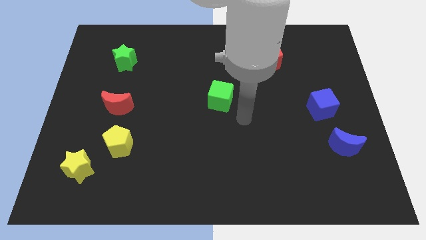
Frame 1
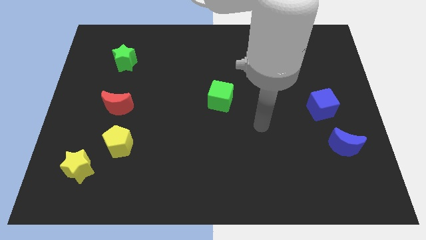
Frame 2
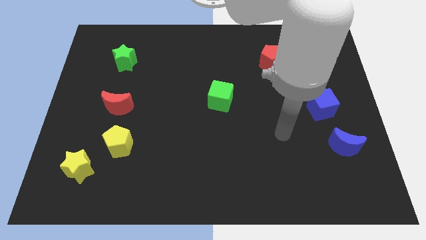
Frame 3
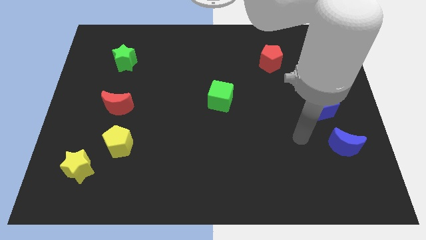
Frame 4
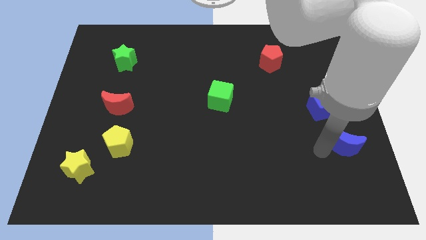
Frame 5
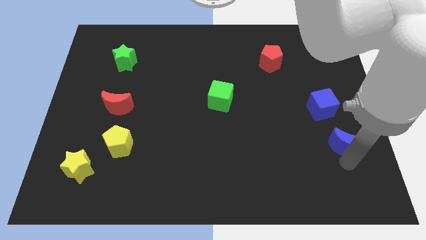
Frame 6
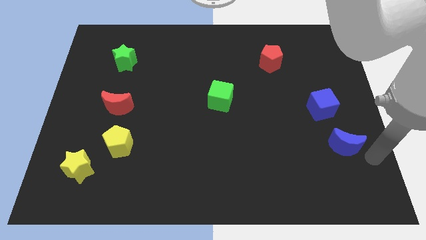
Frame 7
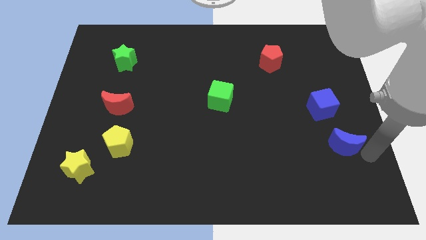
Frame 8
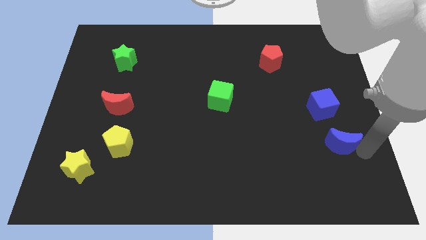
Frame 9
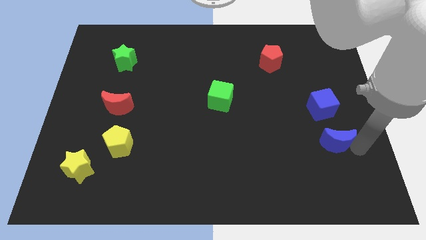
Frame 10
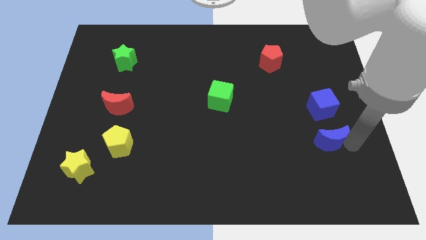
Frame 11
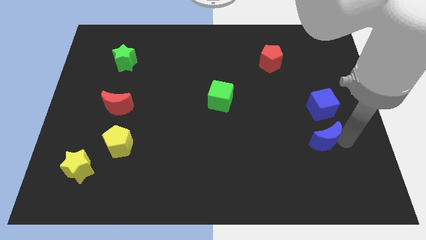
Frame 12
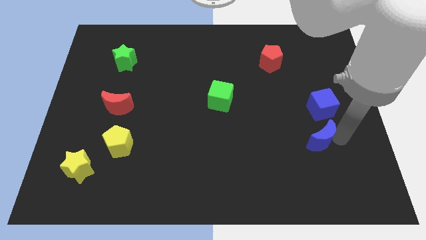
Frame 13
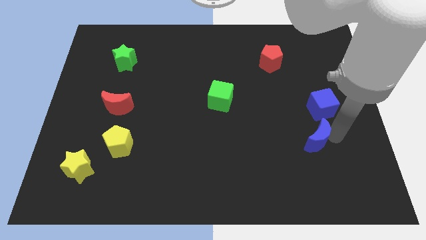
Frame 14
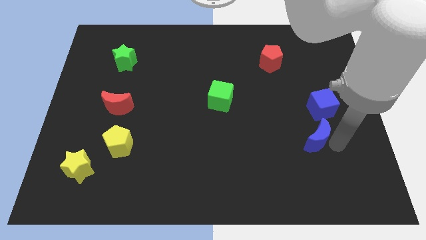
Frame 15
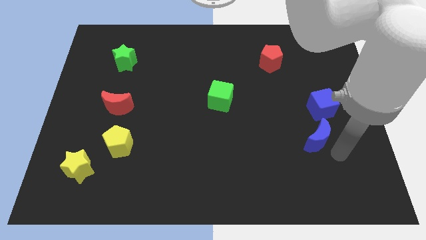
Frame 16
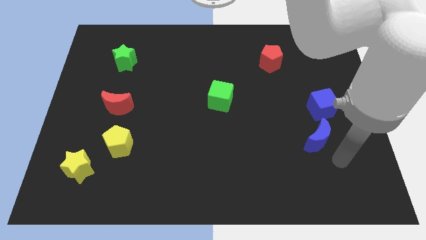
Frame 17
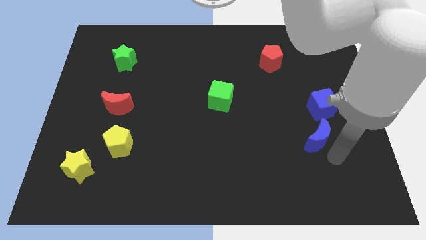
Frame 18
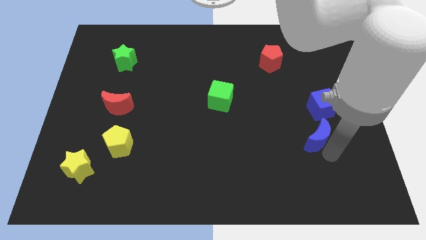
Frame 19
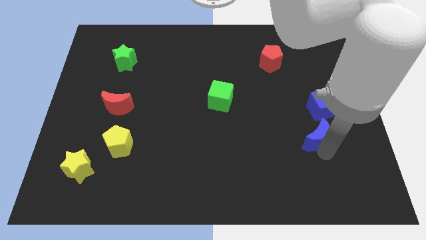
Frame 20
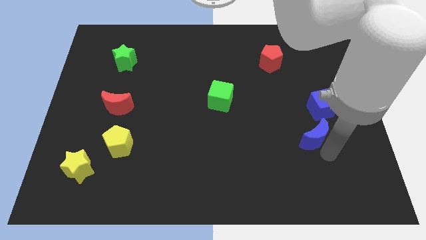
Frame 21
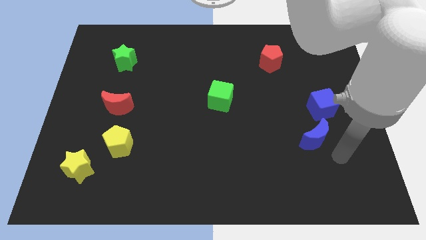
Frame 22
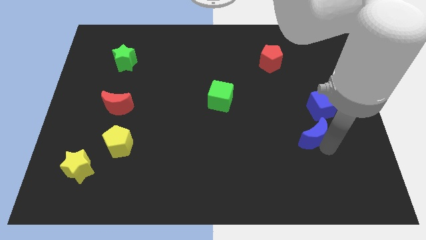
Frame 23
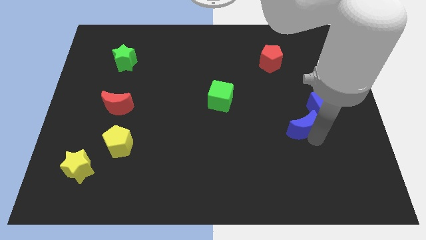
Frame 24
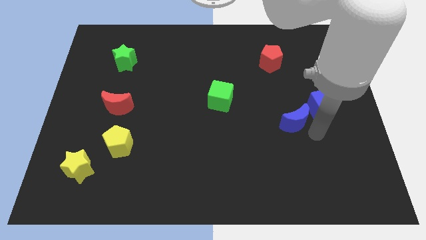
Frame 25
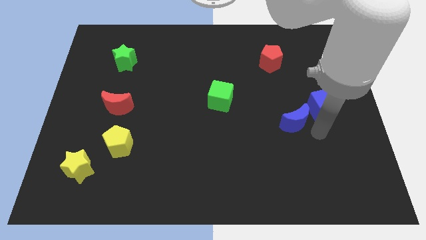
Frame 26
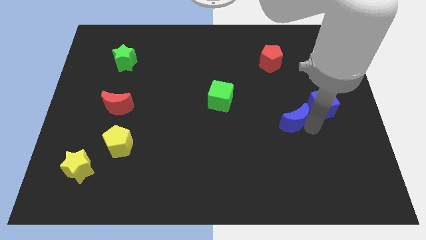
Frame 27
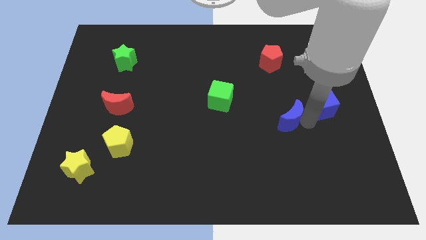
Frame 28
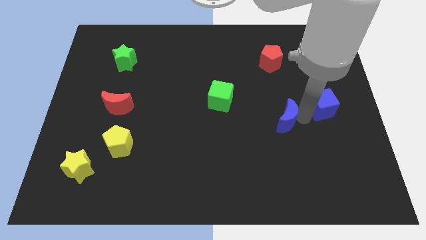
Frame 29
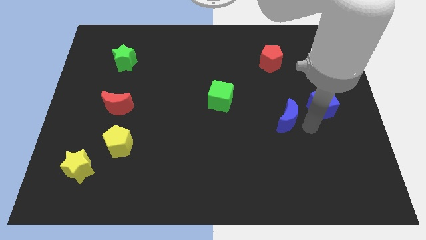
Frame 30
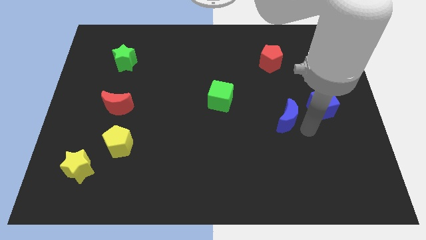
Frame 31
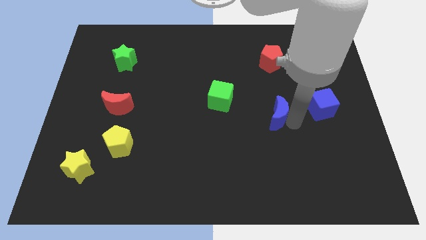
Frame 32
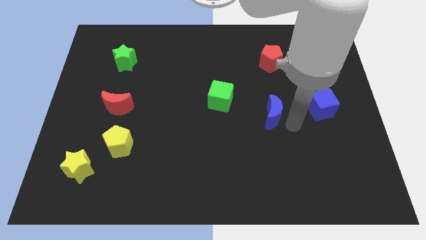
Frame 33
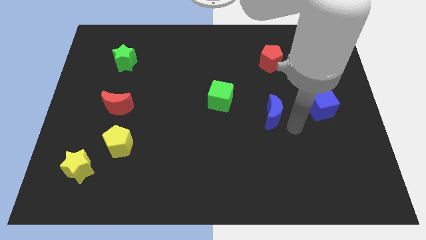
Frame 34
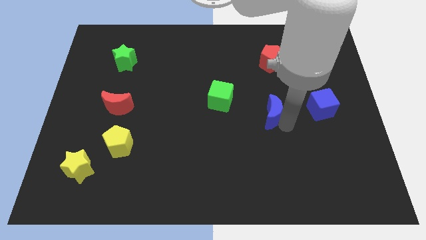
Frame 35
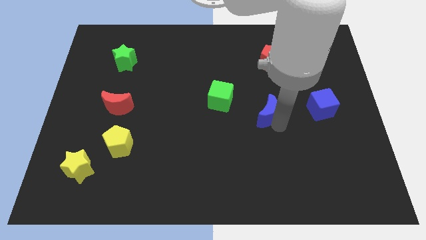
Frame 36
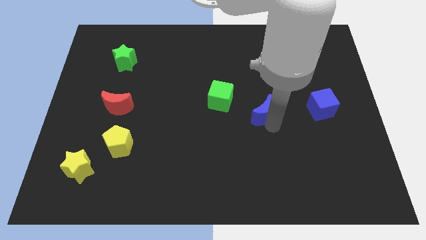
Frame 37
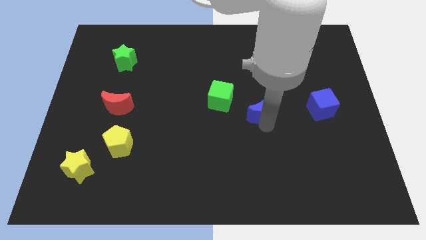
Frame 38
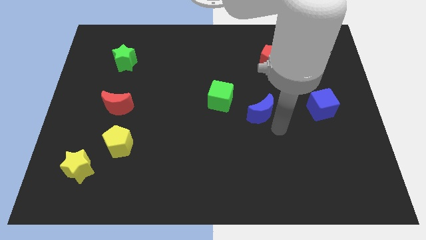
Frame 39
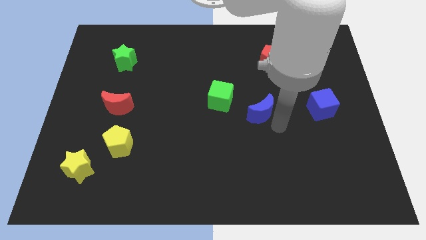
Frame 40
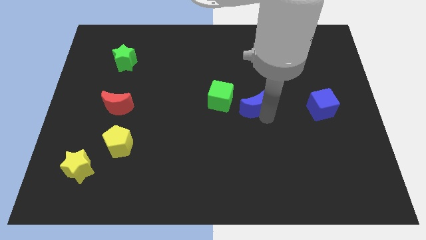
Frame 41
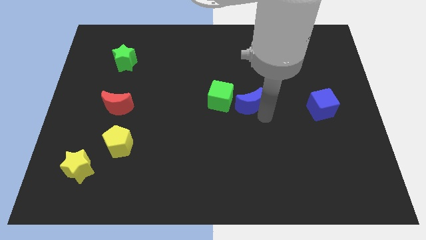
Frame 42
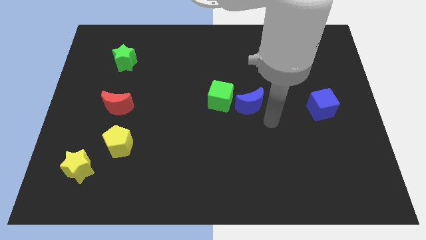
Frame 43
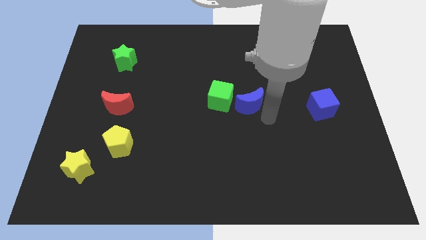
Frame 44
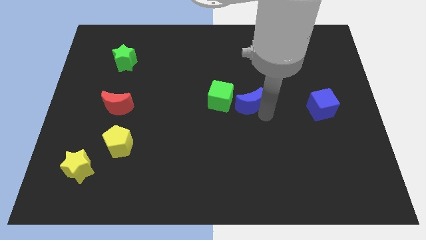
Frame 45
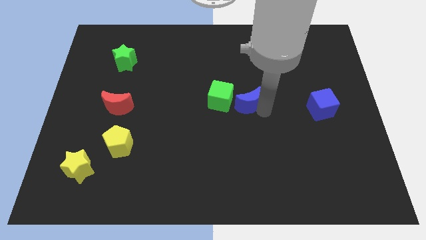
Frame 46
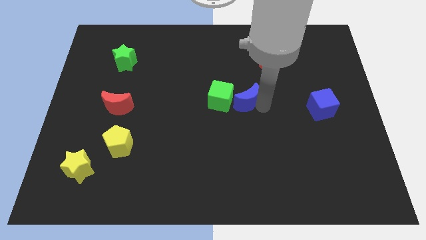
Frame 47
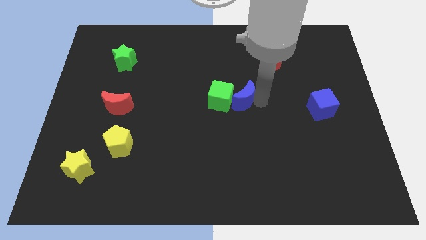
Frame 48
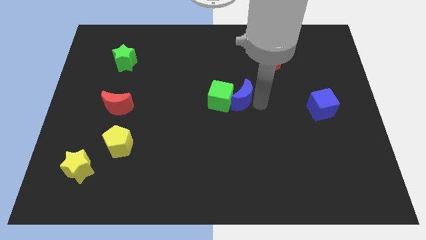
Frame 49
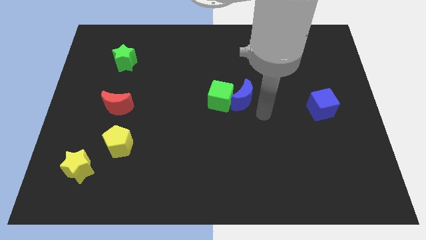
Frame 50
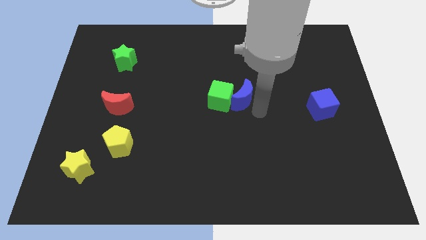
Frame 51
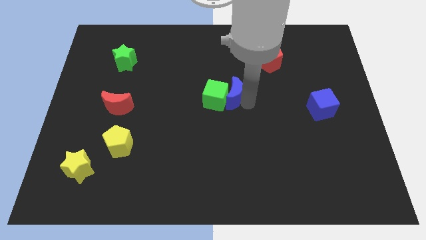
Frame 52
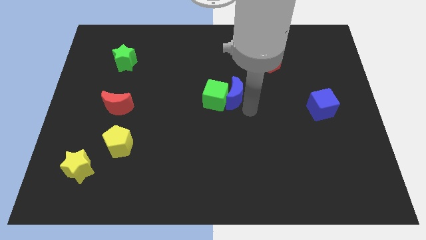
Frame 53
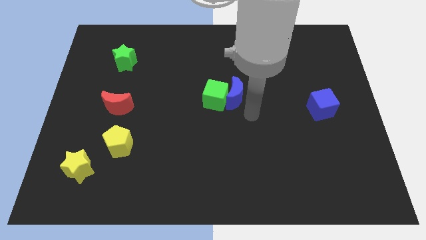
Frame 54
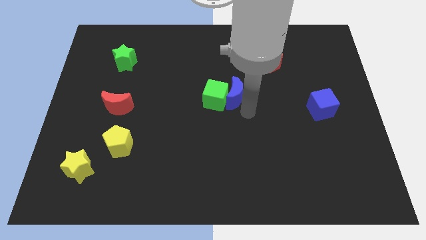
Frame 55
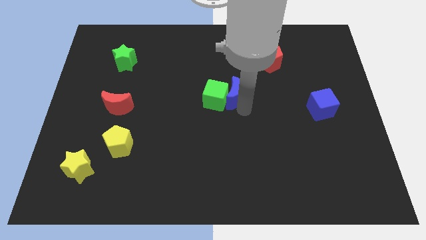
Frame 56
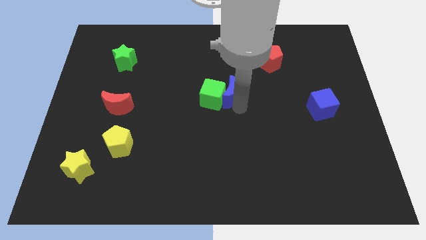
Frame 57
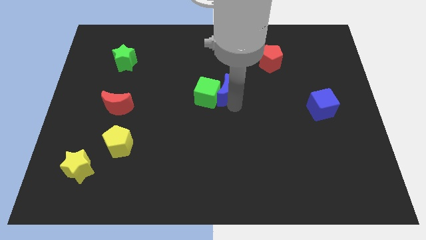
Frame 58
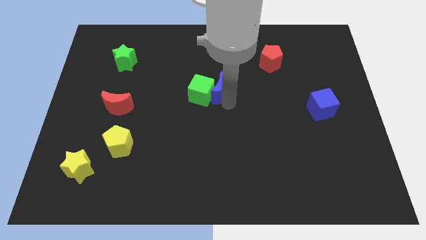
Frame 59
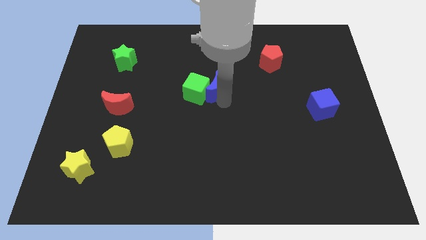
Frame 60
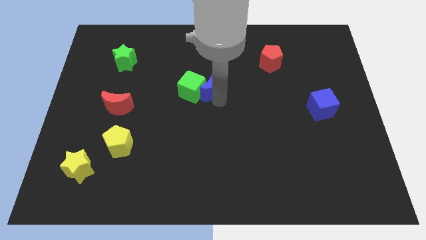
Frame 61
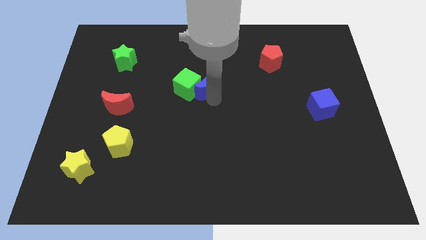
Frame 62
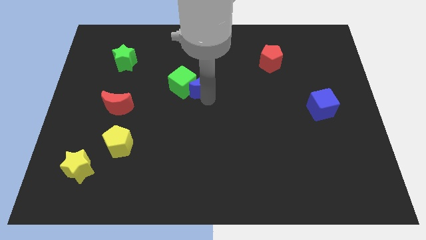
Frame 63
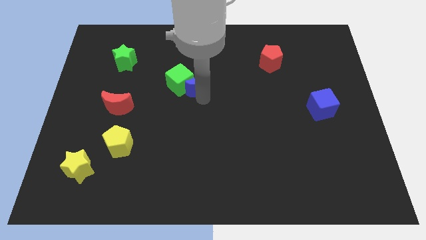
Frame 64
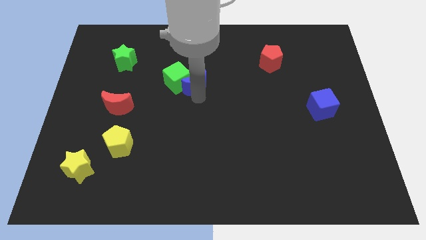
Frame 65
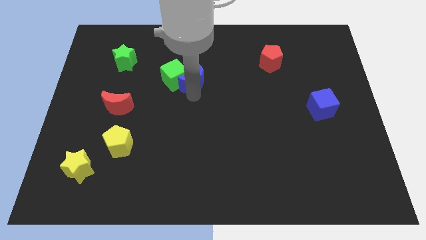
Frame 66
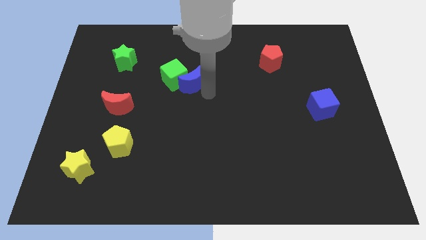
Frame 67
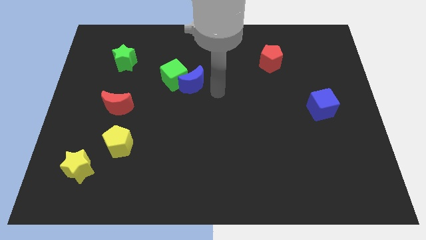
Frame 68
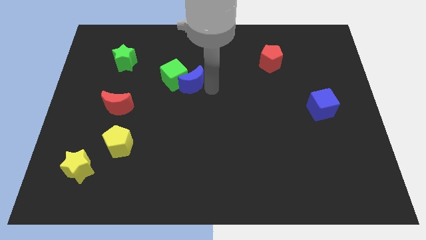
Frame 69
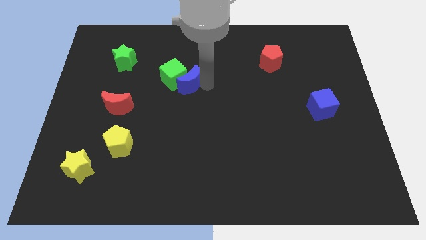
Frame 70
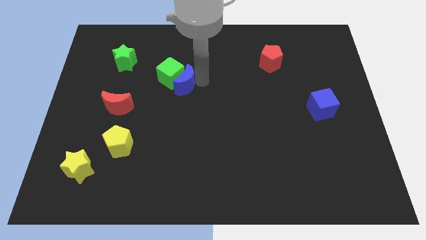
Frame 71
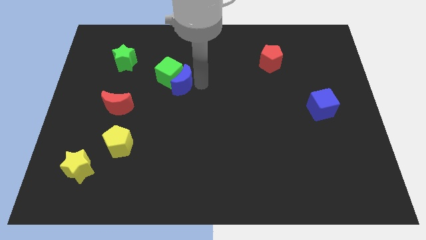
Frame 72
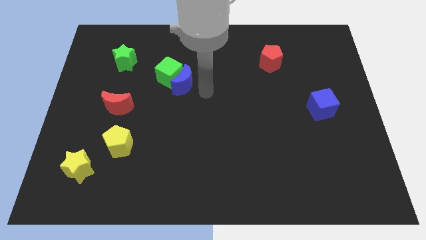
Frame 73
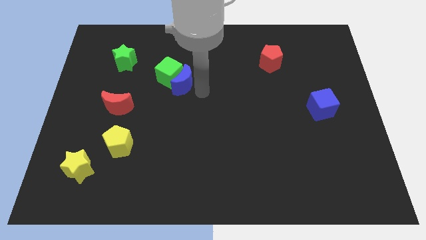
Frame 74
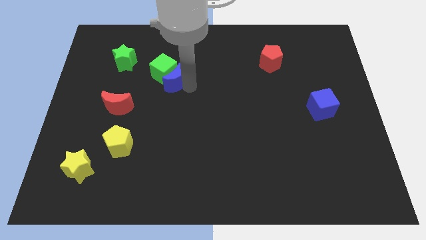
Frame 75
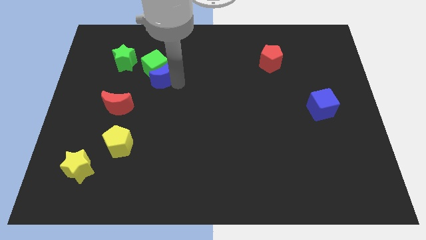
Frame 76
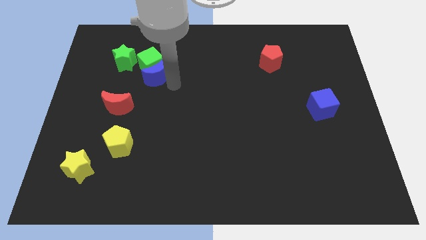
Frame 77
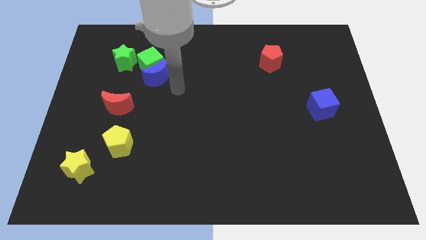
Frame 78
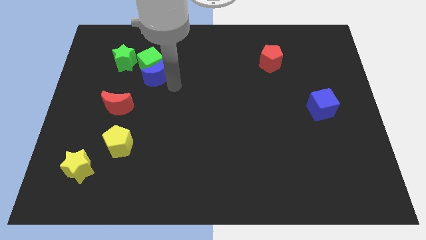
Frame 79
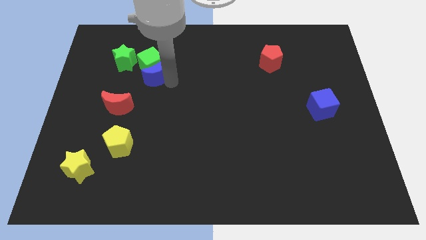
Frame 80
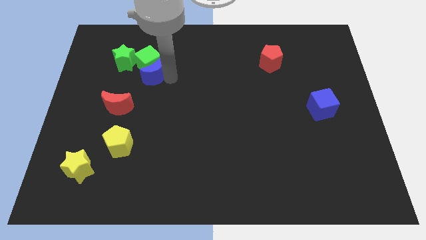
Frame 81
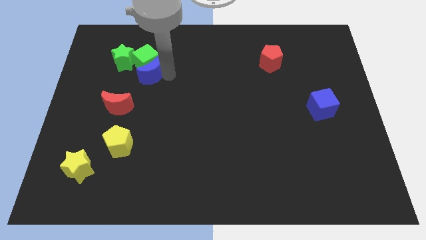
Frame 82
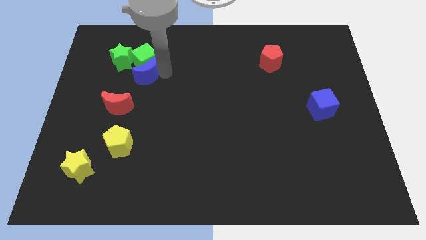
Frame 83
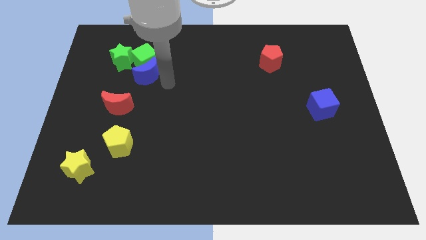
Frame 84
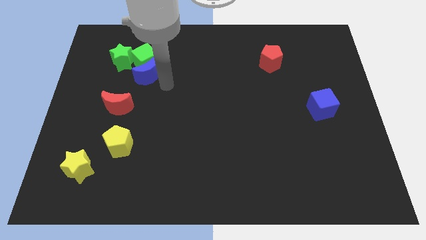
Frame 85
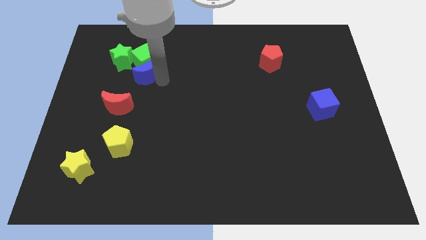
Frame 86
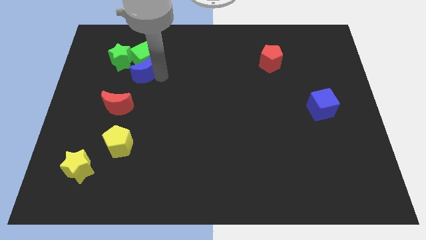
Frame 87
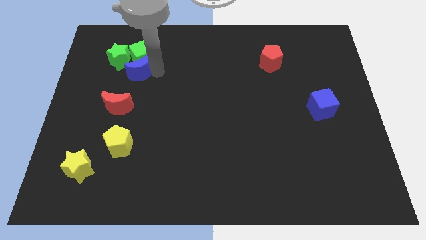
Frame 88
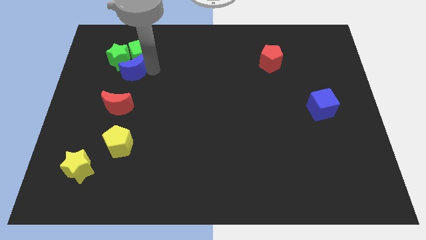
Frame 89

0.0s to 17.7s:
slide the blue moon towards the green star
